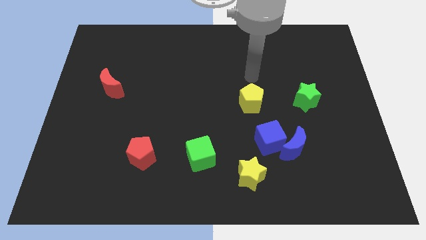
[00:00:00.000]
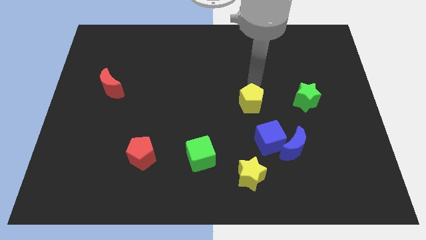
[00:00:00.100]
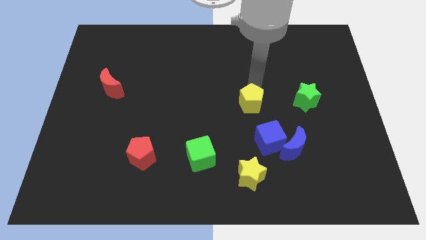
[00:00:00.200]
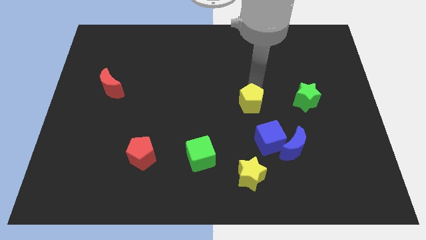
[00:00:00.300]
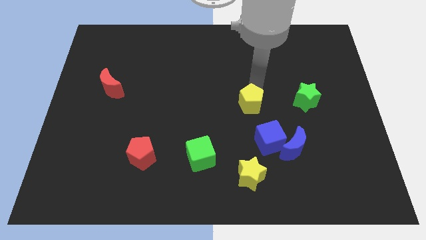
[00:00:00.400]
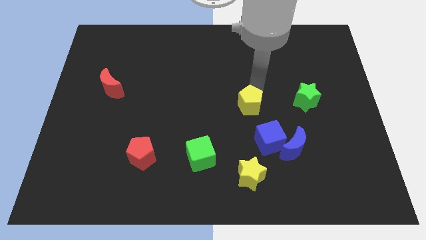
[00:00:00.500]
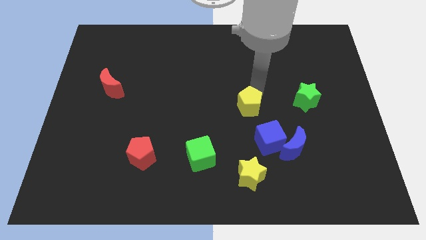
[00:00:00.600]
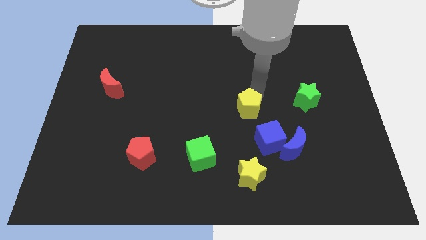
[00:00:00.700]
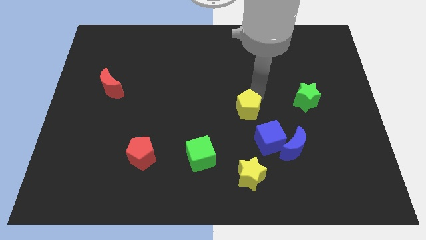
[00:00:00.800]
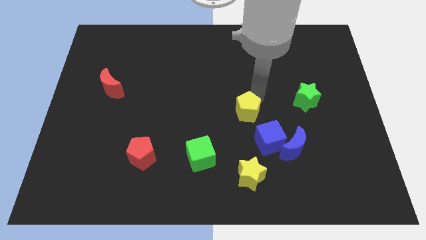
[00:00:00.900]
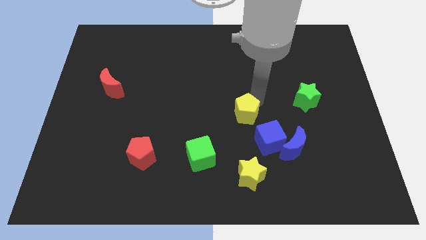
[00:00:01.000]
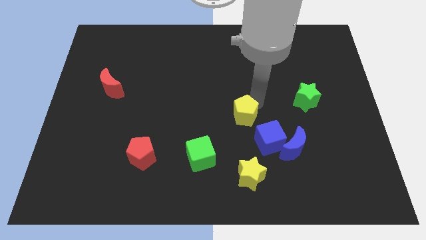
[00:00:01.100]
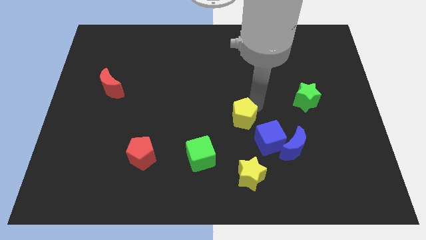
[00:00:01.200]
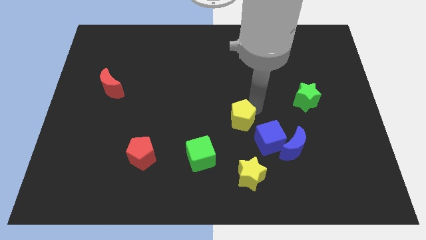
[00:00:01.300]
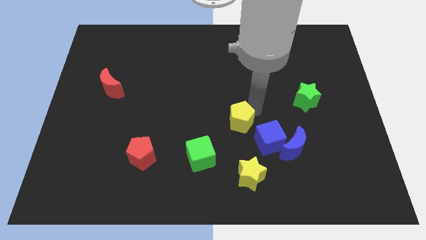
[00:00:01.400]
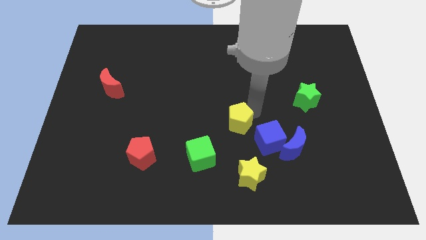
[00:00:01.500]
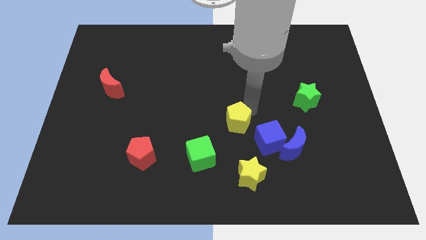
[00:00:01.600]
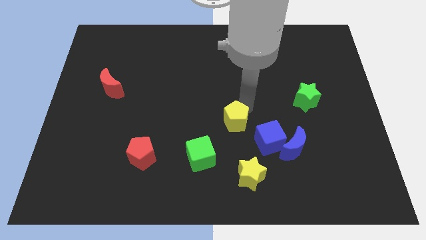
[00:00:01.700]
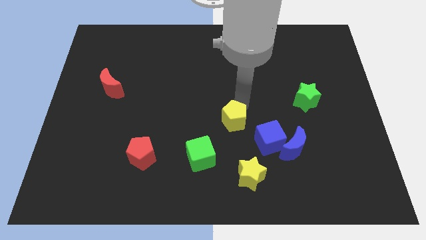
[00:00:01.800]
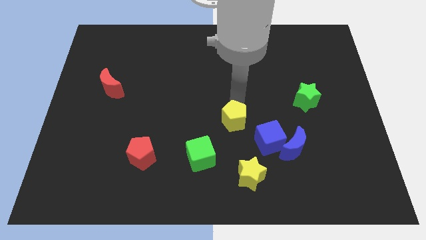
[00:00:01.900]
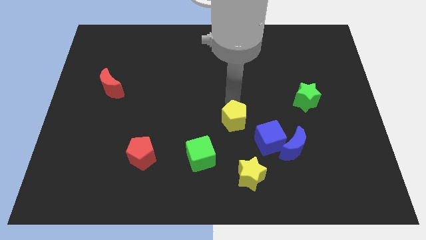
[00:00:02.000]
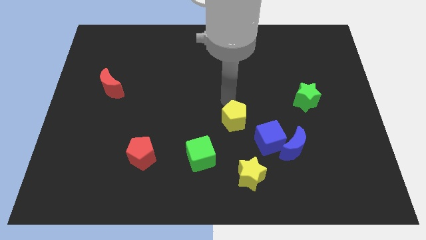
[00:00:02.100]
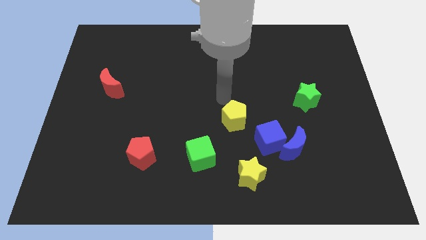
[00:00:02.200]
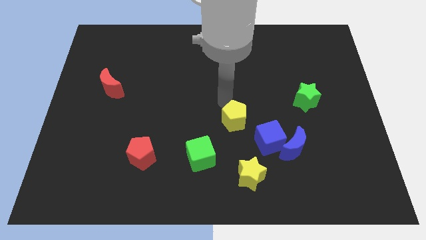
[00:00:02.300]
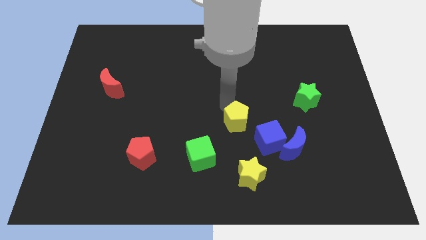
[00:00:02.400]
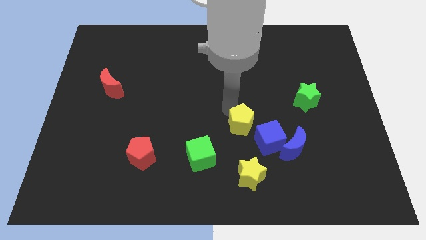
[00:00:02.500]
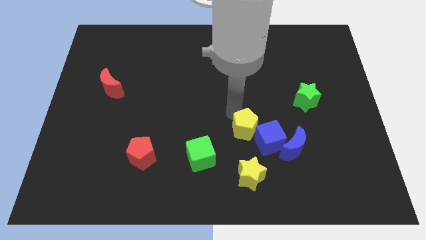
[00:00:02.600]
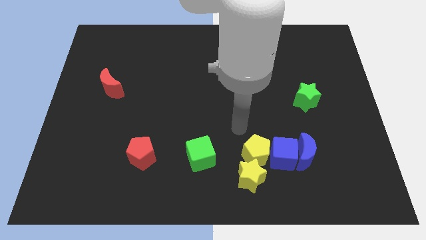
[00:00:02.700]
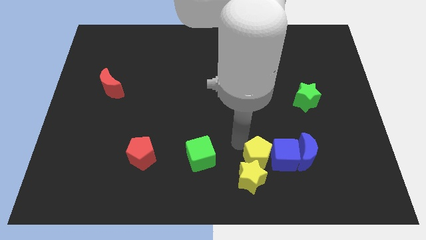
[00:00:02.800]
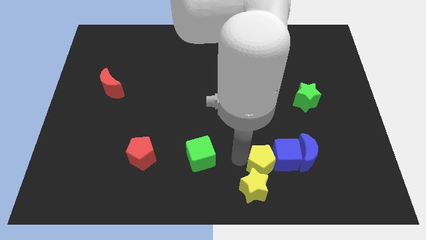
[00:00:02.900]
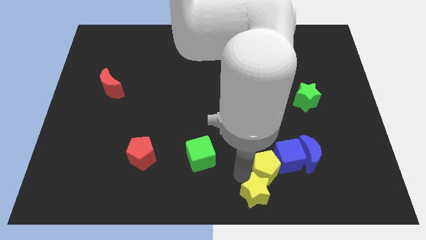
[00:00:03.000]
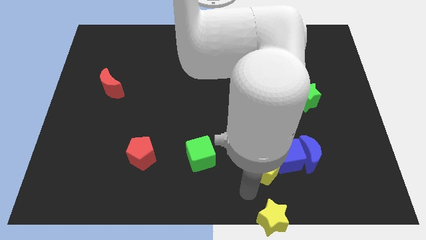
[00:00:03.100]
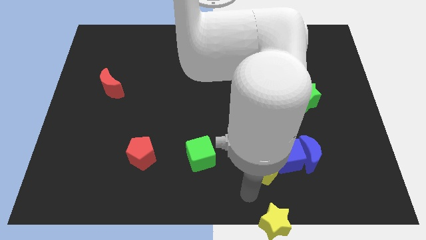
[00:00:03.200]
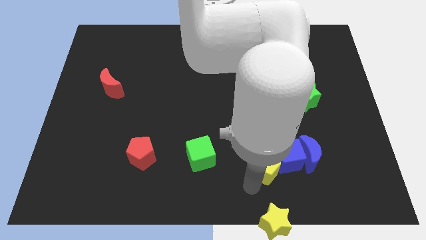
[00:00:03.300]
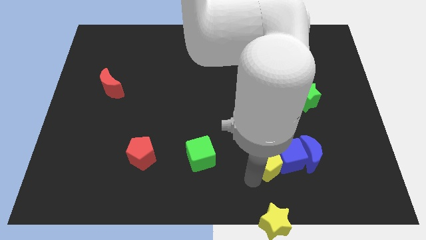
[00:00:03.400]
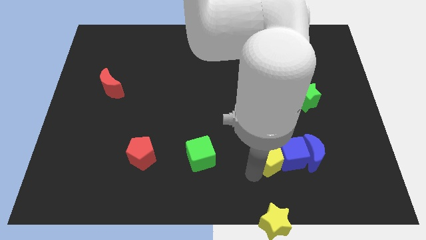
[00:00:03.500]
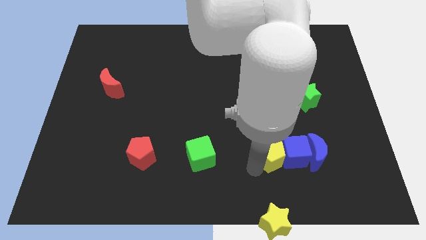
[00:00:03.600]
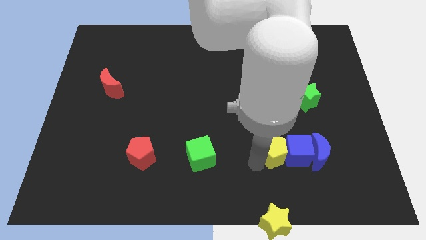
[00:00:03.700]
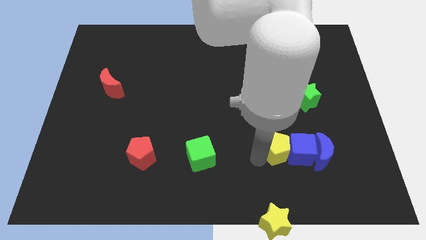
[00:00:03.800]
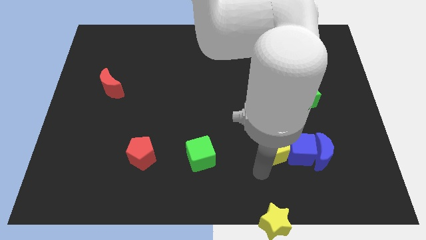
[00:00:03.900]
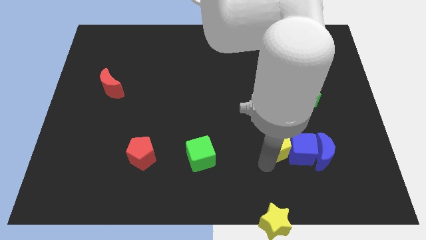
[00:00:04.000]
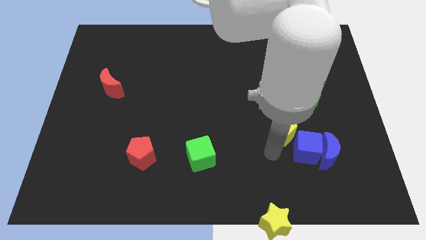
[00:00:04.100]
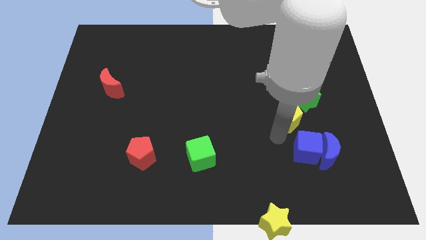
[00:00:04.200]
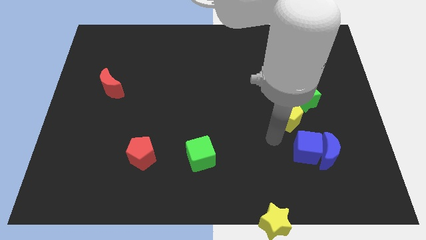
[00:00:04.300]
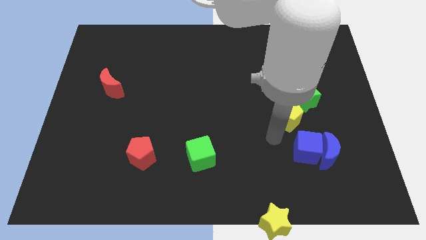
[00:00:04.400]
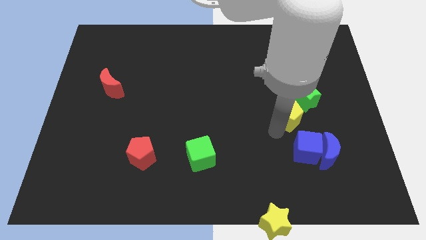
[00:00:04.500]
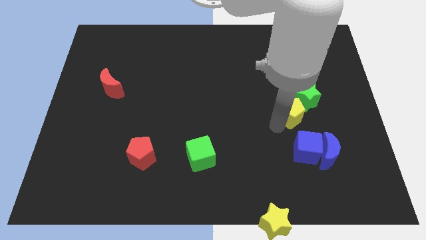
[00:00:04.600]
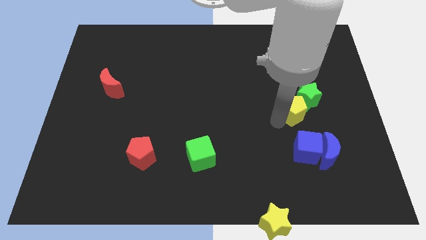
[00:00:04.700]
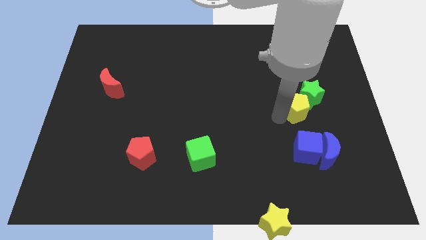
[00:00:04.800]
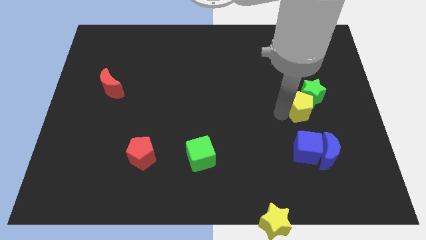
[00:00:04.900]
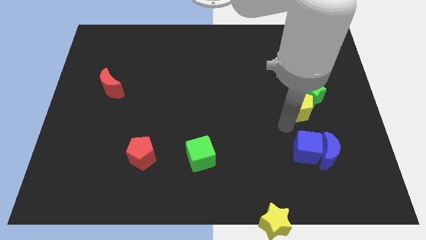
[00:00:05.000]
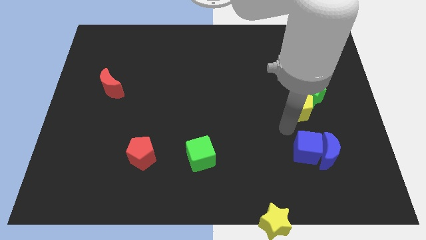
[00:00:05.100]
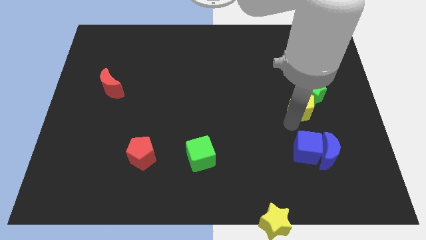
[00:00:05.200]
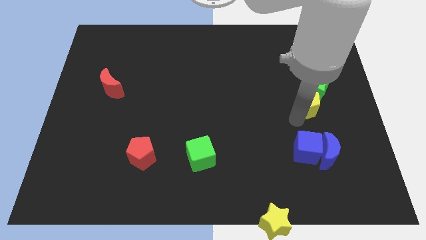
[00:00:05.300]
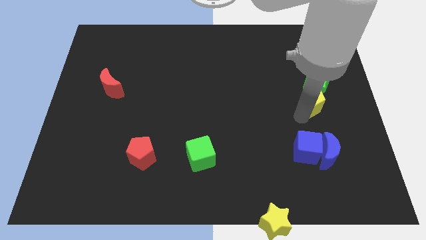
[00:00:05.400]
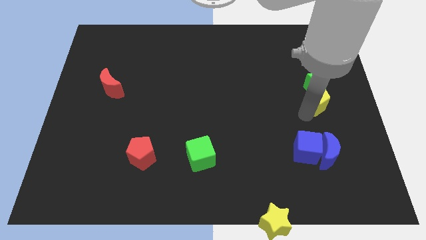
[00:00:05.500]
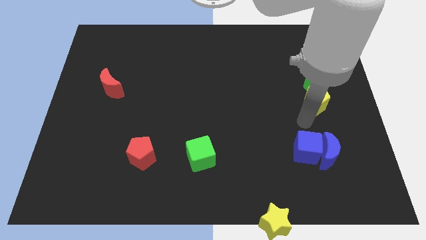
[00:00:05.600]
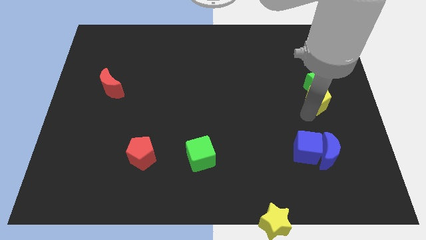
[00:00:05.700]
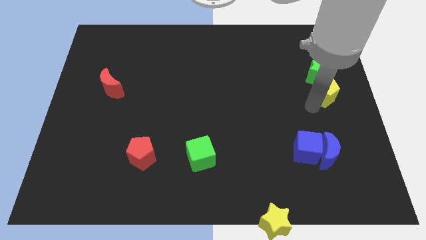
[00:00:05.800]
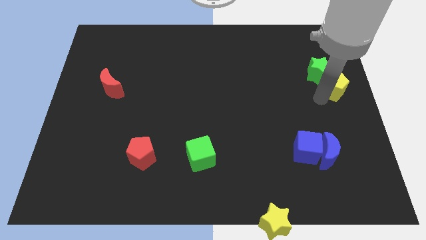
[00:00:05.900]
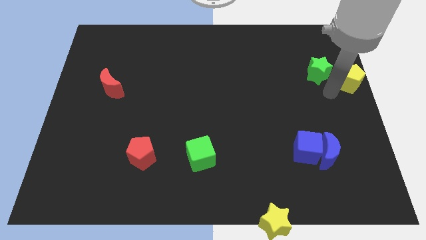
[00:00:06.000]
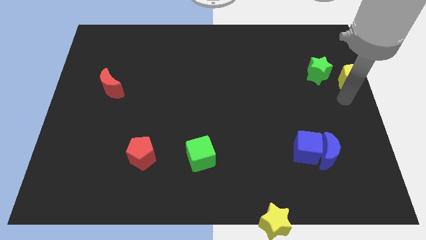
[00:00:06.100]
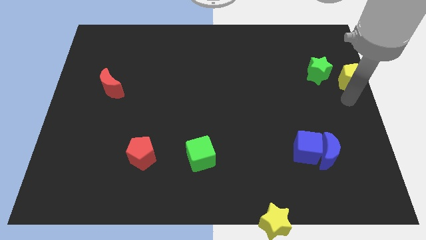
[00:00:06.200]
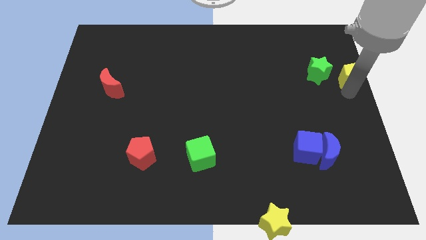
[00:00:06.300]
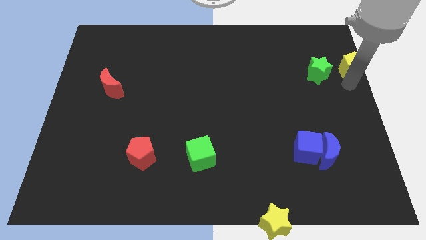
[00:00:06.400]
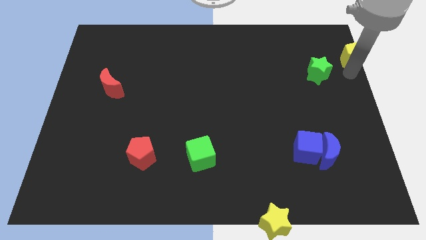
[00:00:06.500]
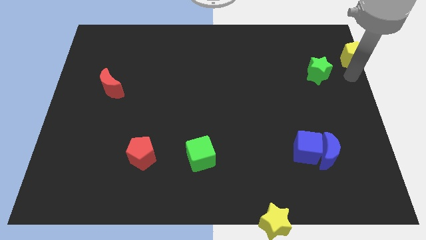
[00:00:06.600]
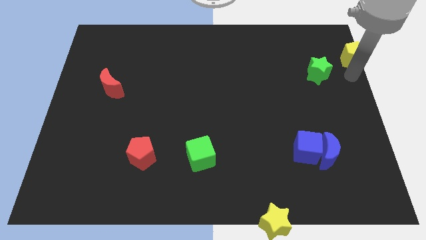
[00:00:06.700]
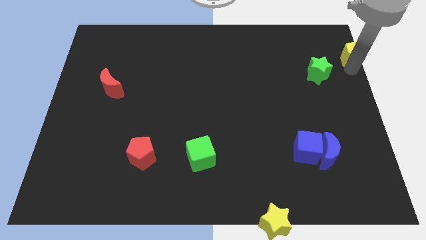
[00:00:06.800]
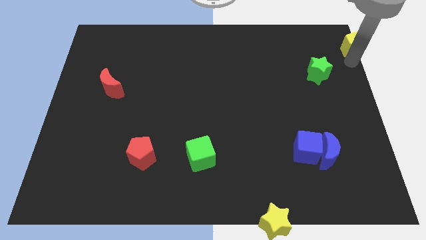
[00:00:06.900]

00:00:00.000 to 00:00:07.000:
slide the yellow pentagon to the top right corner
